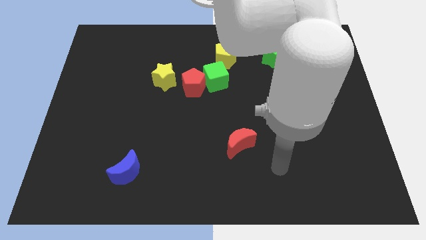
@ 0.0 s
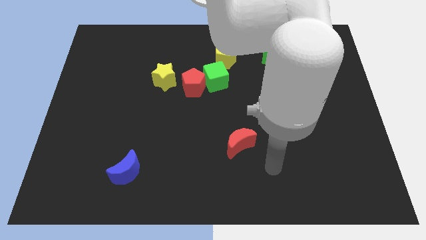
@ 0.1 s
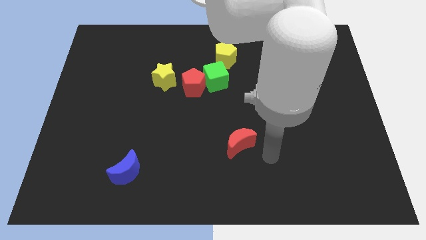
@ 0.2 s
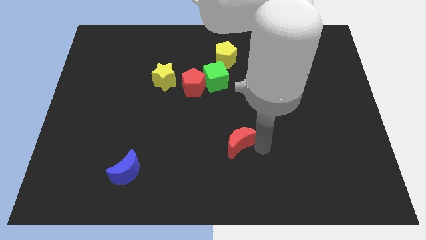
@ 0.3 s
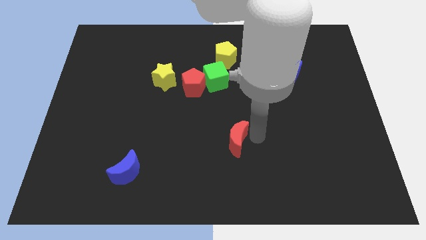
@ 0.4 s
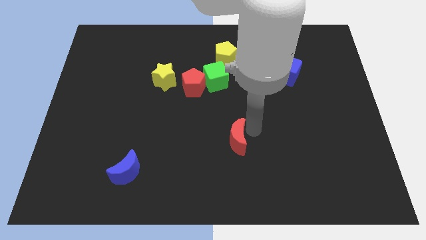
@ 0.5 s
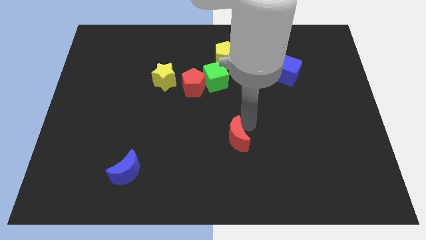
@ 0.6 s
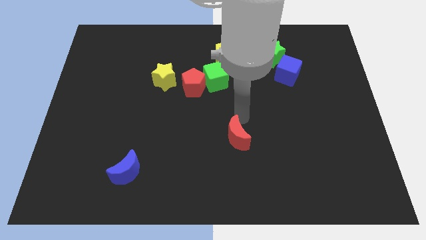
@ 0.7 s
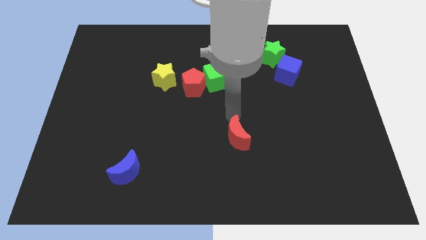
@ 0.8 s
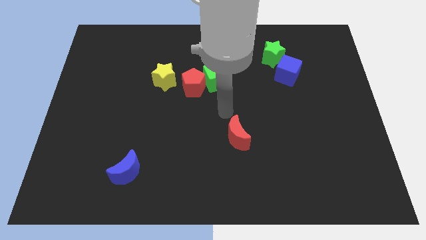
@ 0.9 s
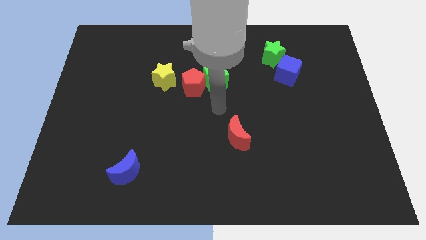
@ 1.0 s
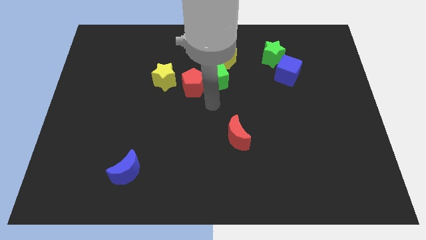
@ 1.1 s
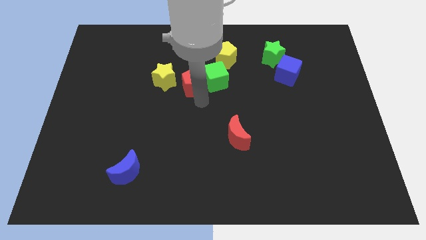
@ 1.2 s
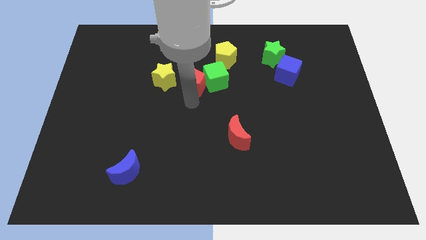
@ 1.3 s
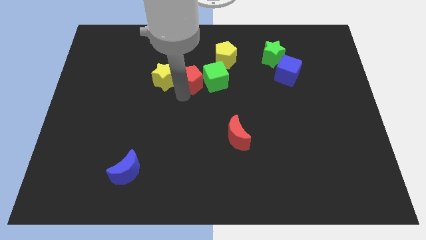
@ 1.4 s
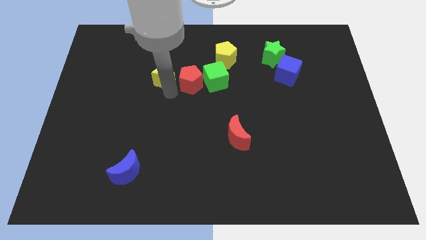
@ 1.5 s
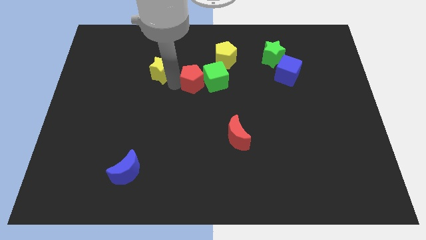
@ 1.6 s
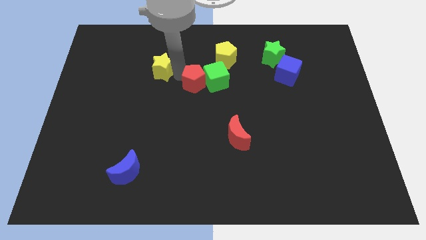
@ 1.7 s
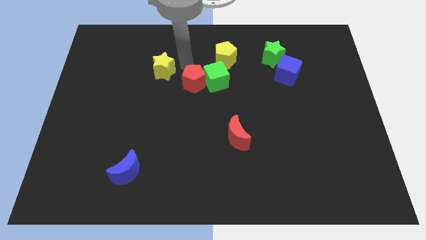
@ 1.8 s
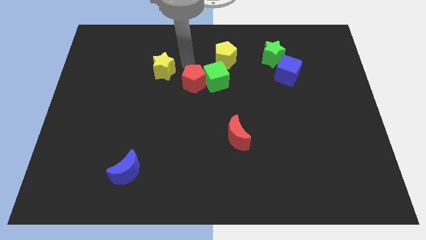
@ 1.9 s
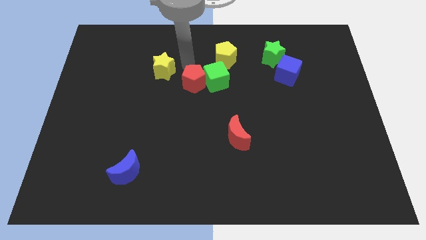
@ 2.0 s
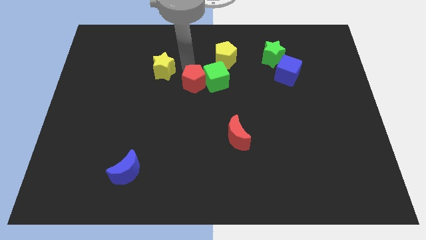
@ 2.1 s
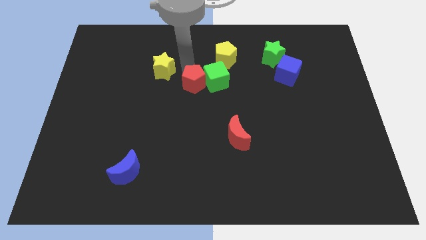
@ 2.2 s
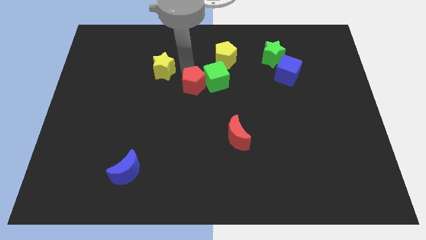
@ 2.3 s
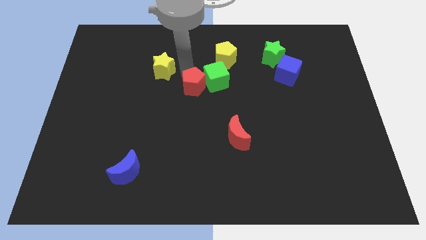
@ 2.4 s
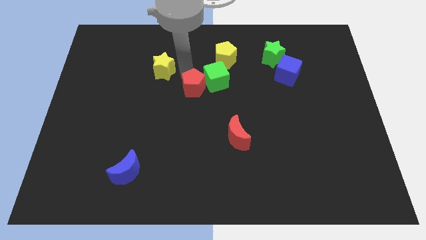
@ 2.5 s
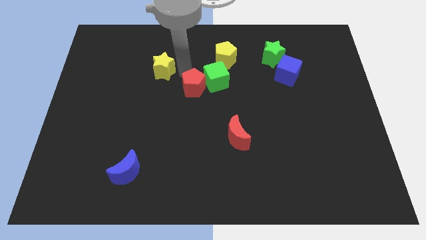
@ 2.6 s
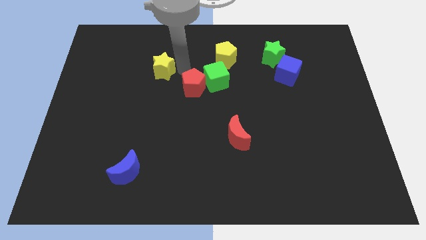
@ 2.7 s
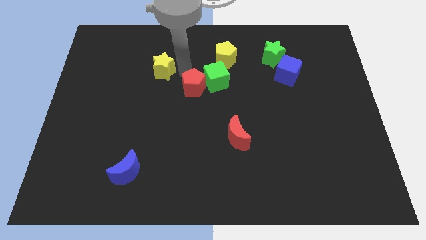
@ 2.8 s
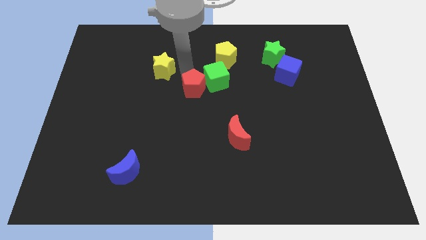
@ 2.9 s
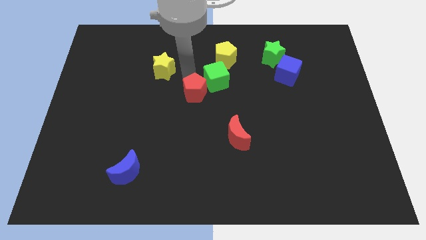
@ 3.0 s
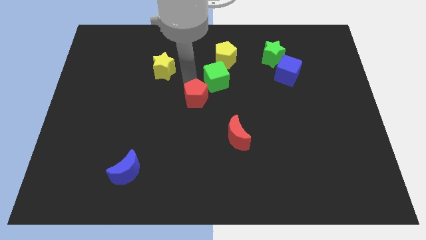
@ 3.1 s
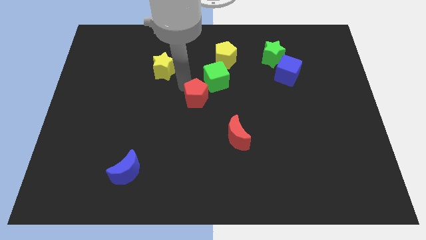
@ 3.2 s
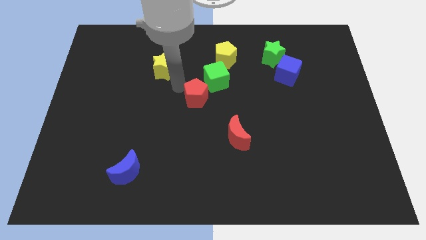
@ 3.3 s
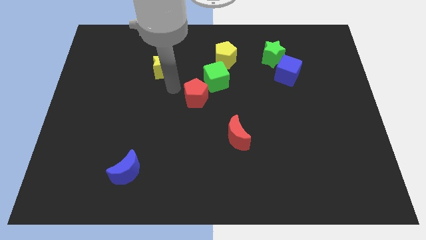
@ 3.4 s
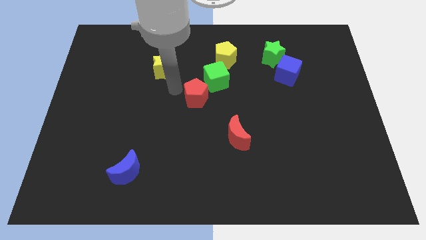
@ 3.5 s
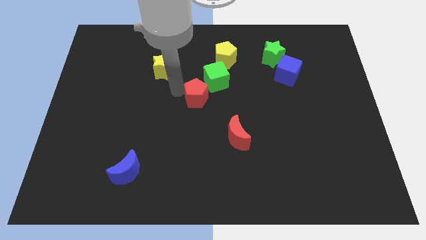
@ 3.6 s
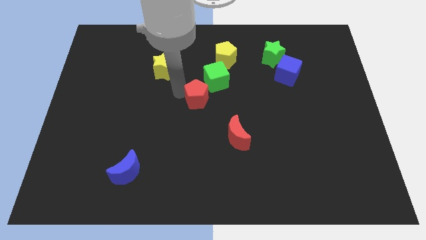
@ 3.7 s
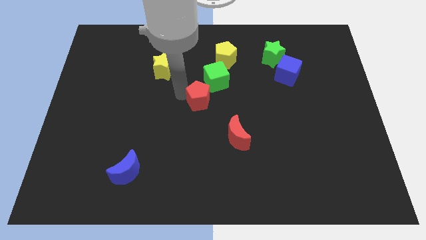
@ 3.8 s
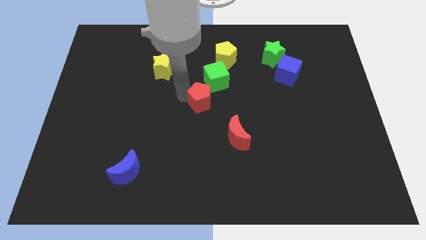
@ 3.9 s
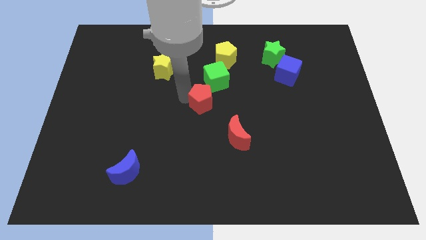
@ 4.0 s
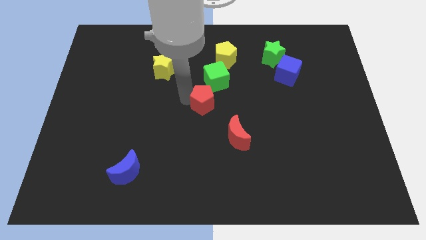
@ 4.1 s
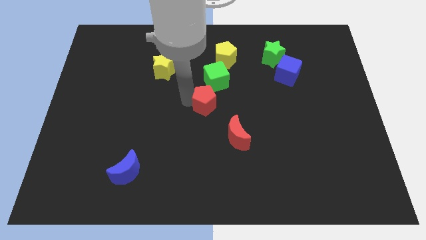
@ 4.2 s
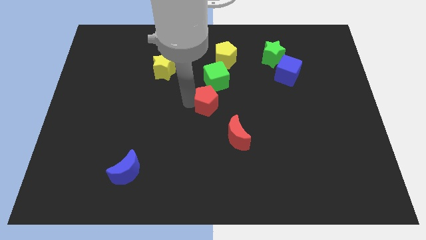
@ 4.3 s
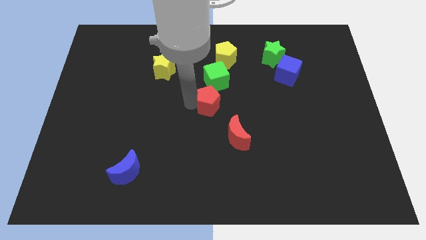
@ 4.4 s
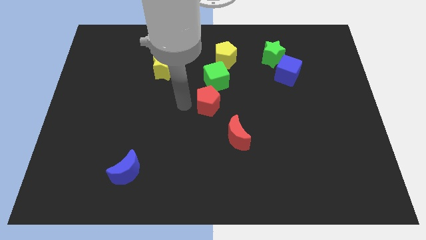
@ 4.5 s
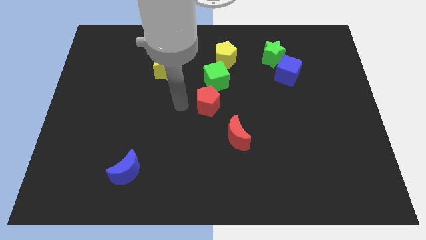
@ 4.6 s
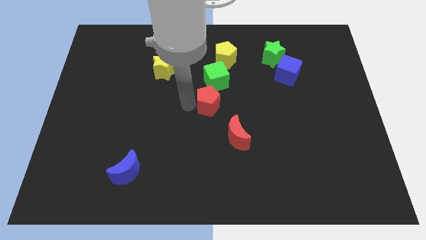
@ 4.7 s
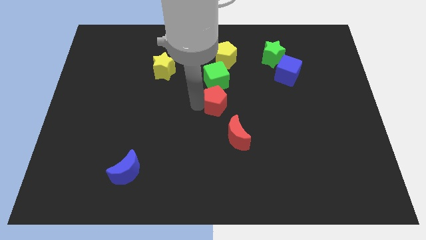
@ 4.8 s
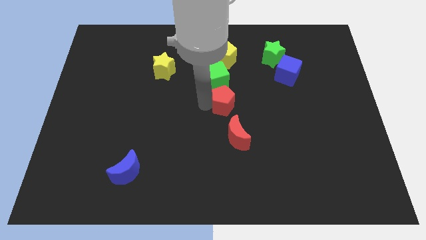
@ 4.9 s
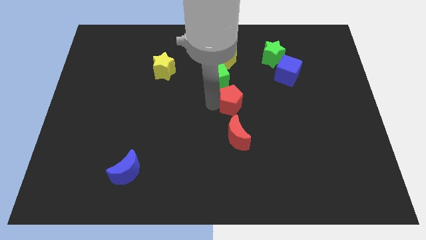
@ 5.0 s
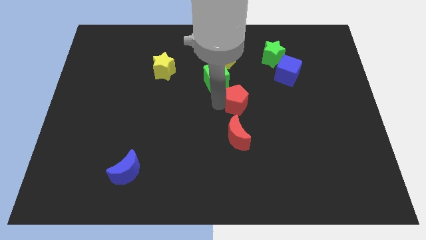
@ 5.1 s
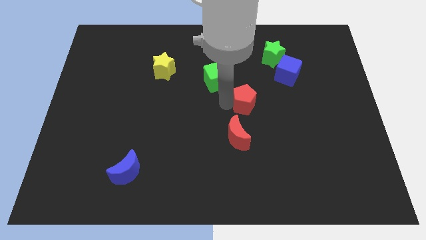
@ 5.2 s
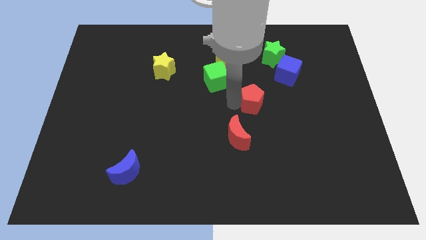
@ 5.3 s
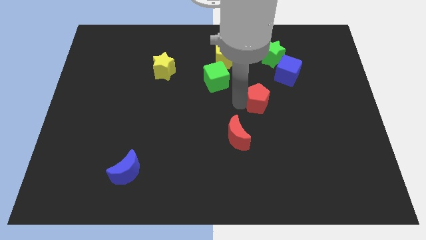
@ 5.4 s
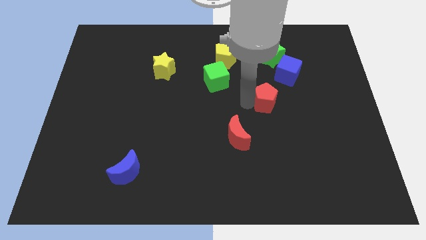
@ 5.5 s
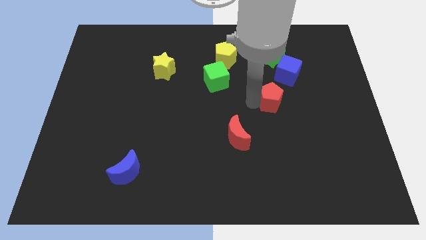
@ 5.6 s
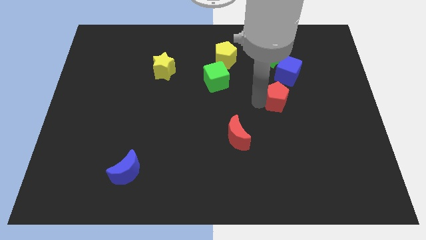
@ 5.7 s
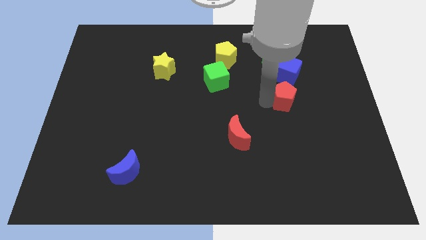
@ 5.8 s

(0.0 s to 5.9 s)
push the red pentagon to the right

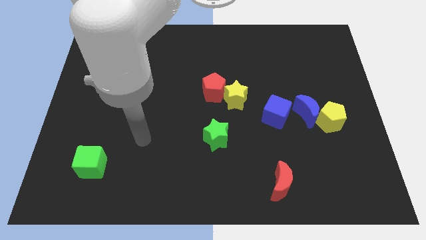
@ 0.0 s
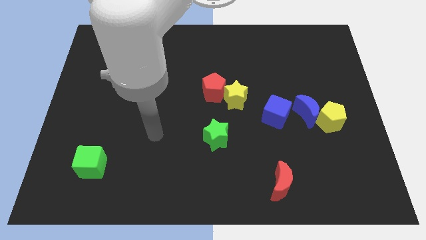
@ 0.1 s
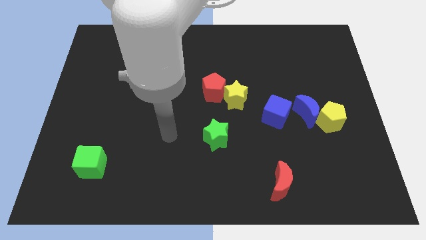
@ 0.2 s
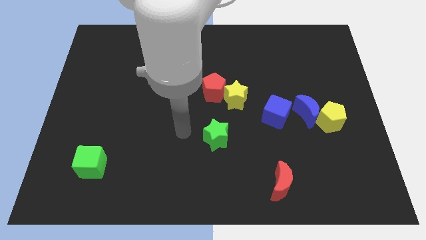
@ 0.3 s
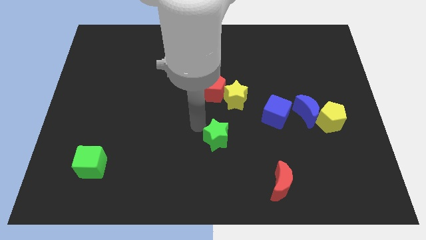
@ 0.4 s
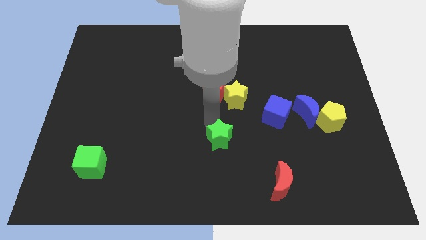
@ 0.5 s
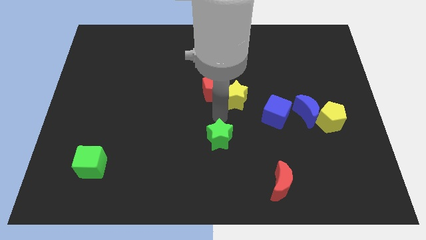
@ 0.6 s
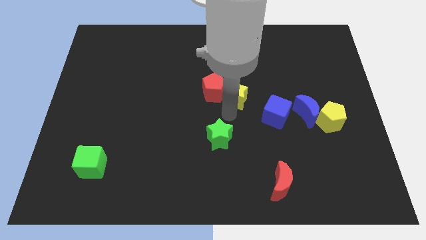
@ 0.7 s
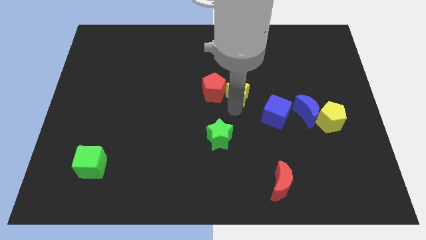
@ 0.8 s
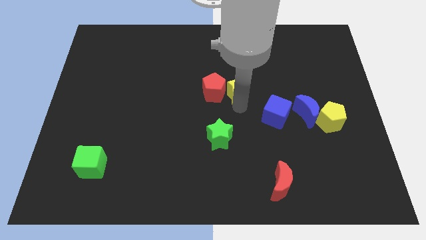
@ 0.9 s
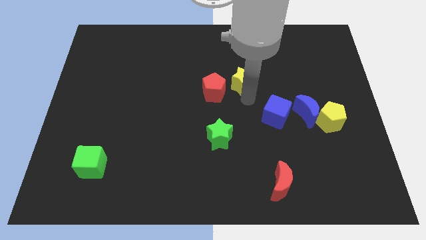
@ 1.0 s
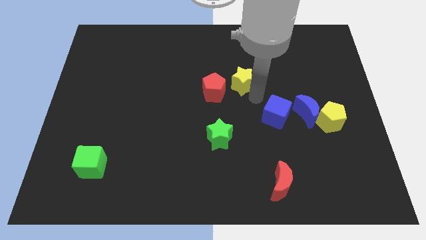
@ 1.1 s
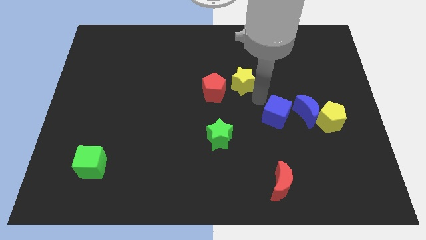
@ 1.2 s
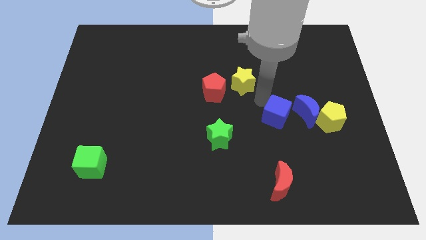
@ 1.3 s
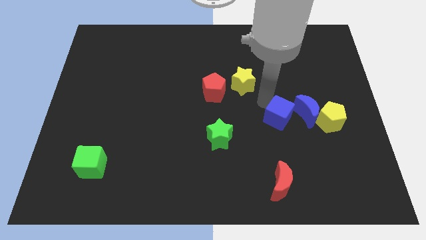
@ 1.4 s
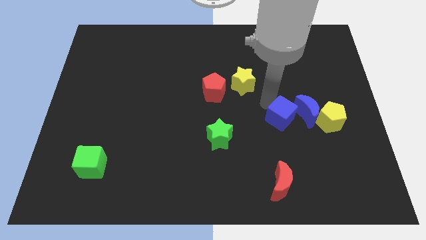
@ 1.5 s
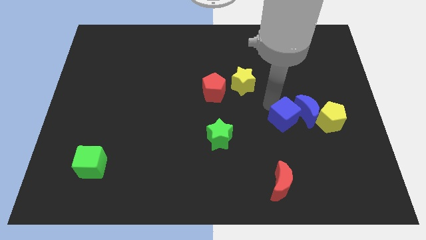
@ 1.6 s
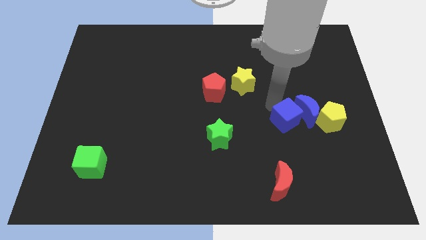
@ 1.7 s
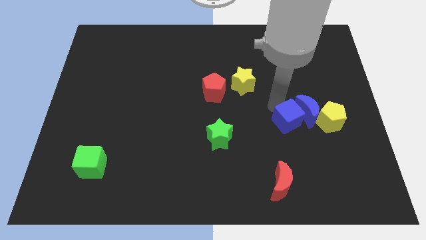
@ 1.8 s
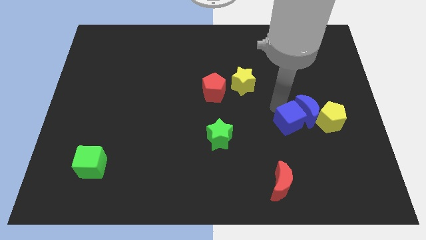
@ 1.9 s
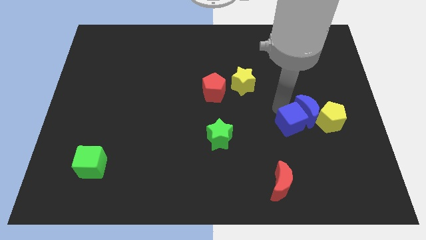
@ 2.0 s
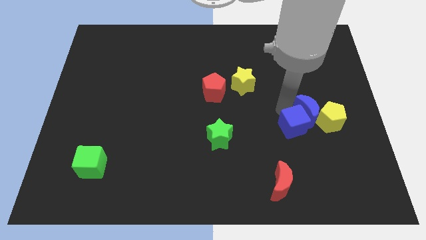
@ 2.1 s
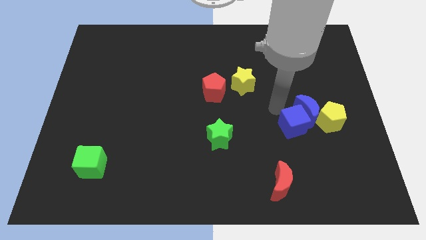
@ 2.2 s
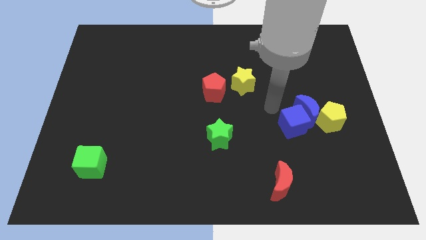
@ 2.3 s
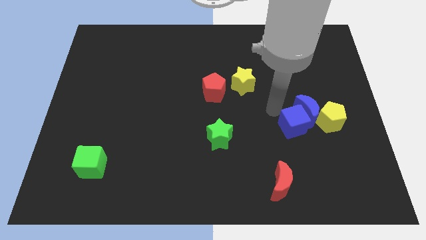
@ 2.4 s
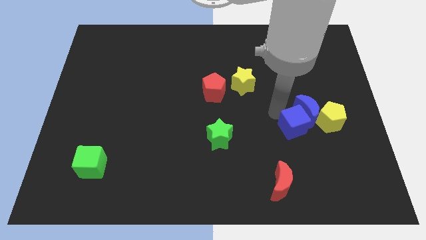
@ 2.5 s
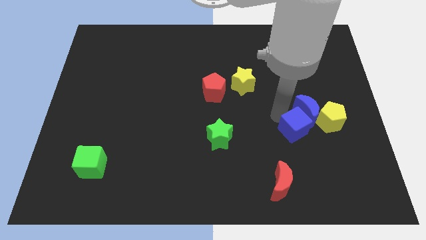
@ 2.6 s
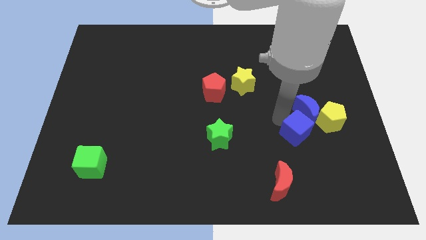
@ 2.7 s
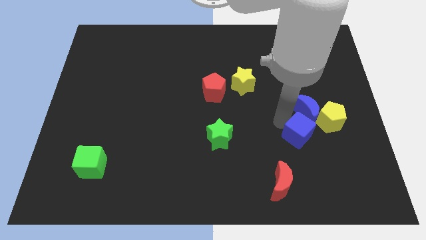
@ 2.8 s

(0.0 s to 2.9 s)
move the blue cube downwards and then to the right somewhat
